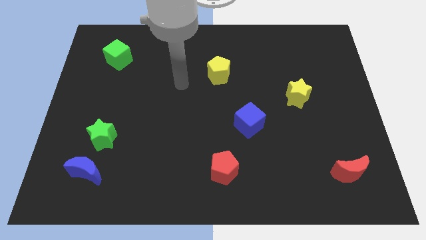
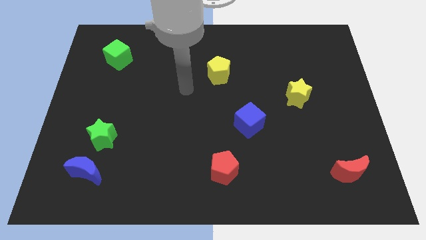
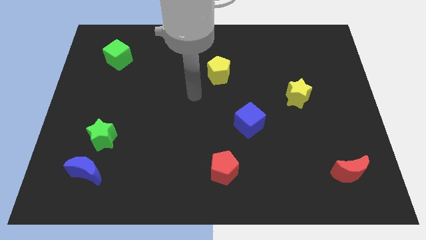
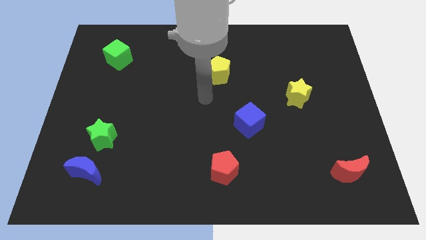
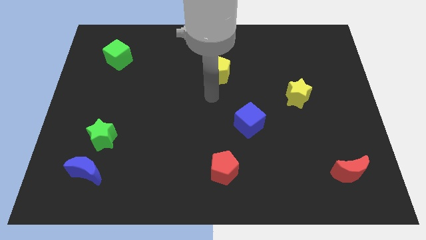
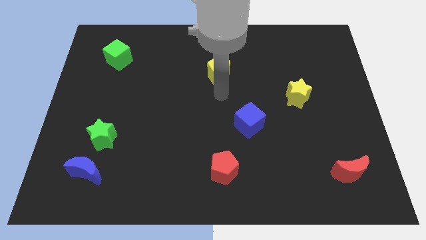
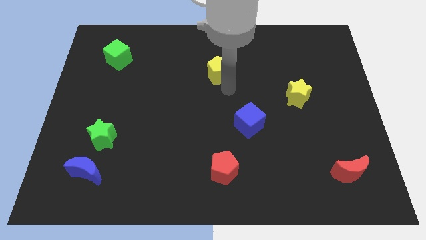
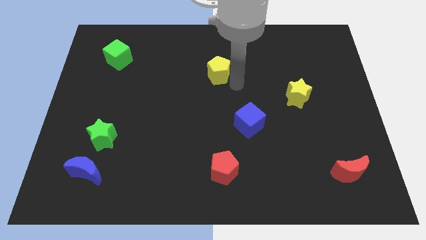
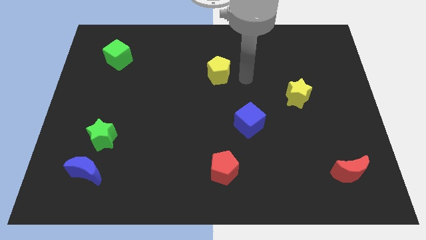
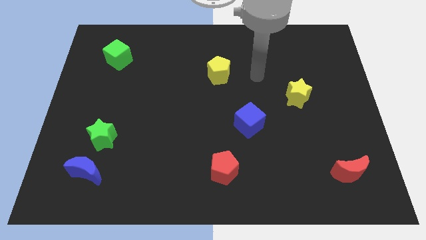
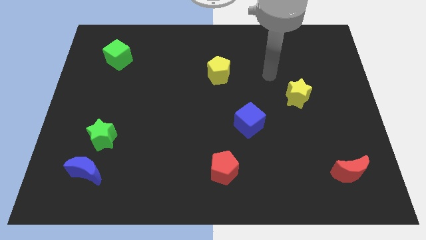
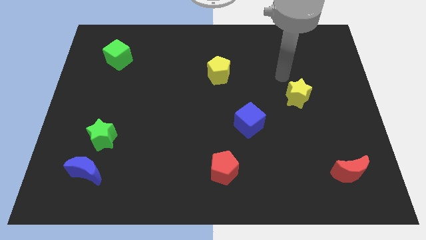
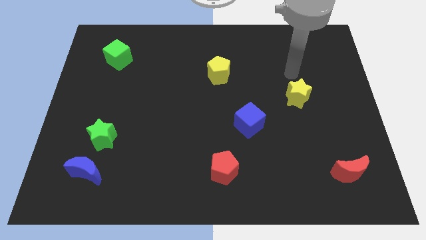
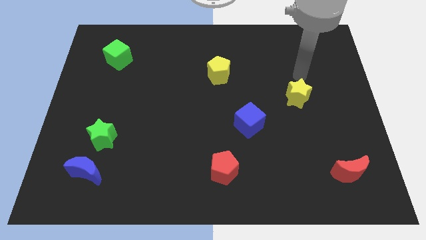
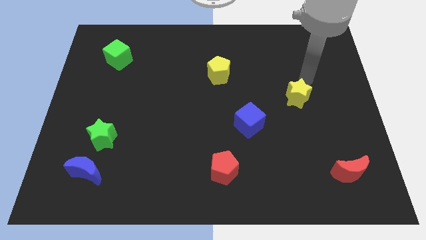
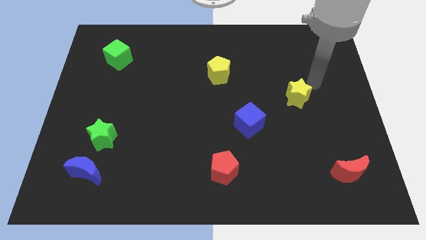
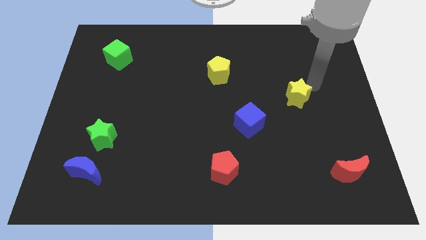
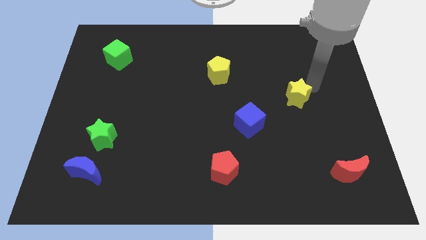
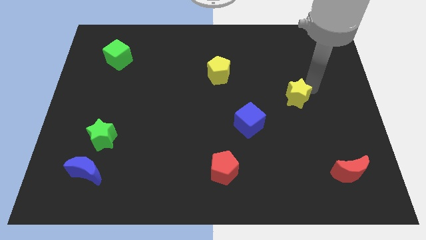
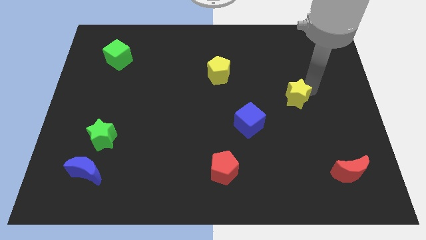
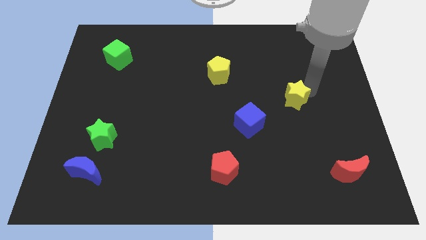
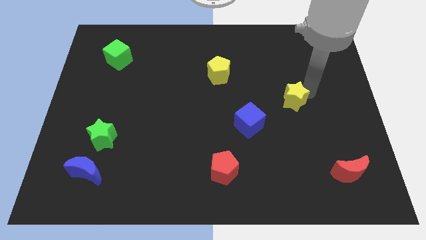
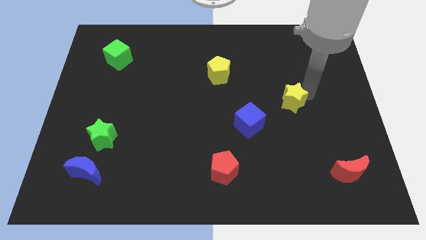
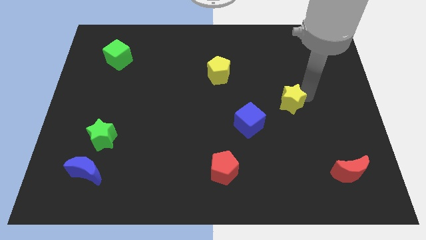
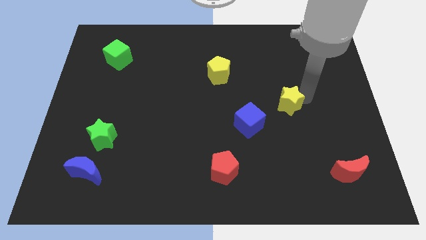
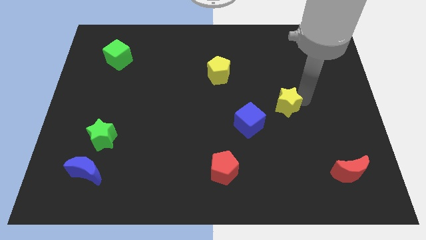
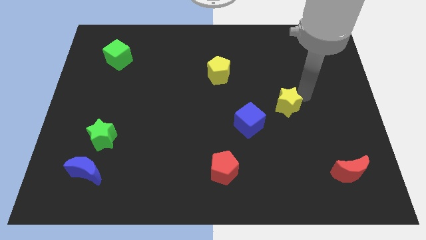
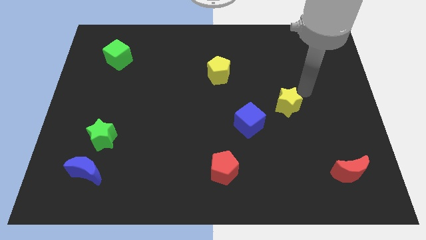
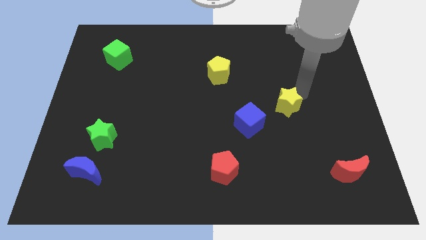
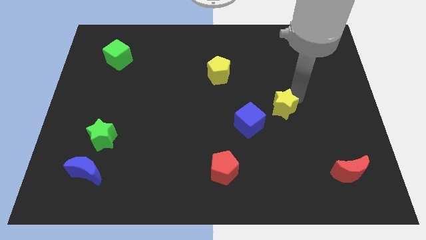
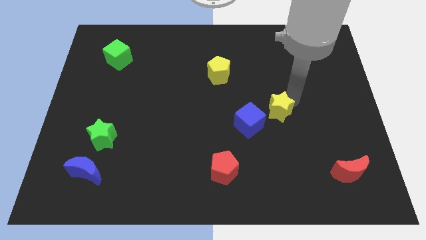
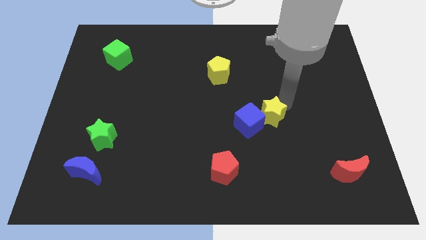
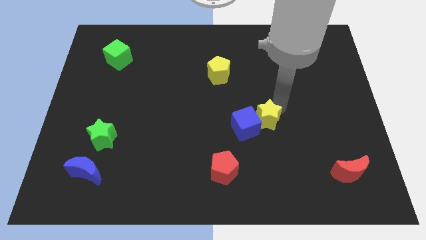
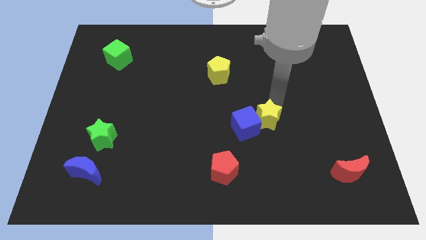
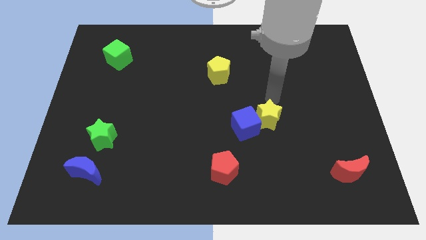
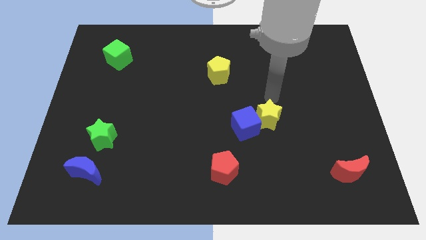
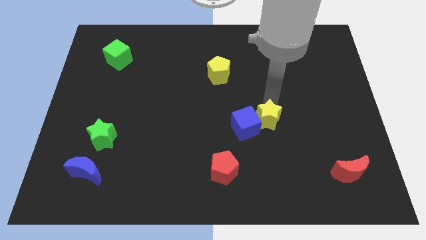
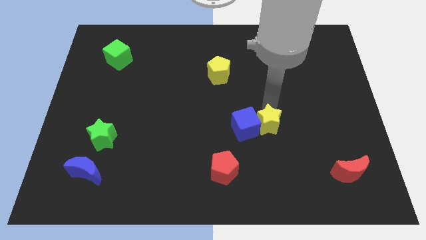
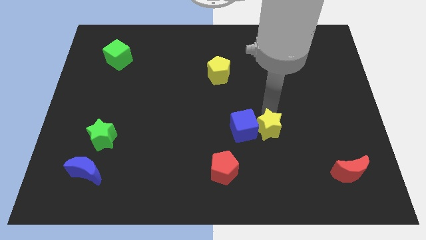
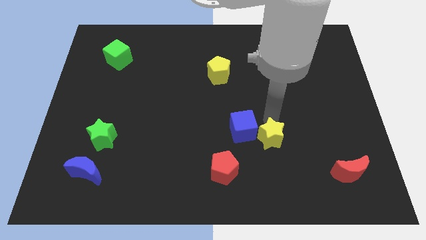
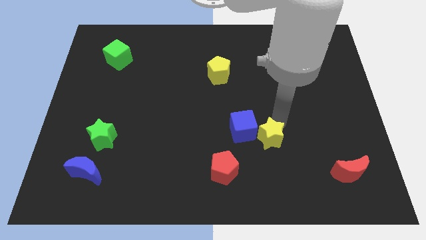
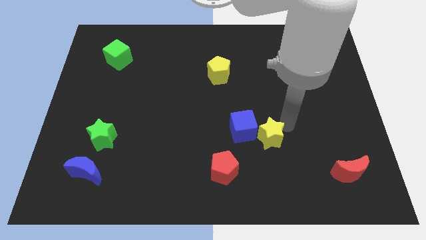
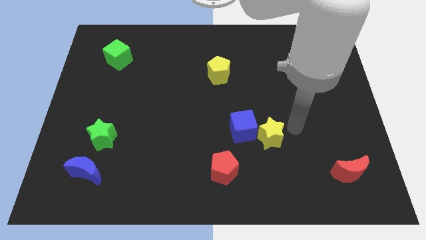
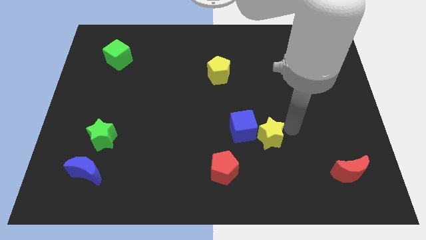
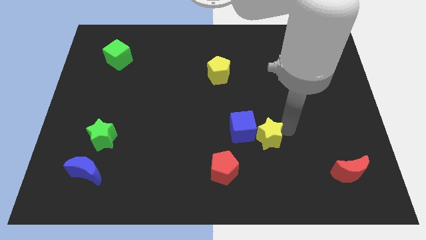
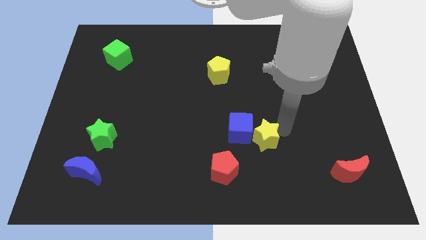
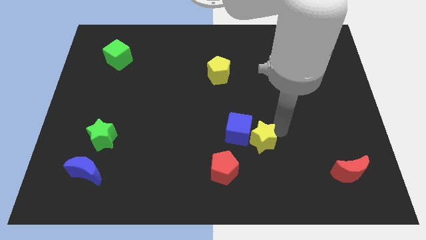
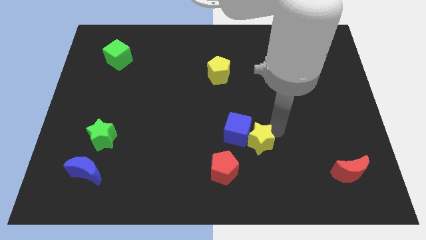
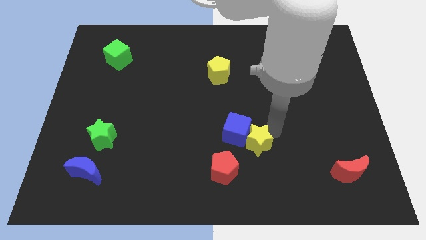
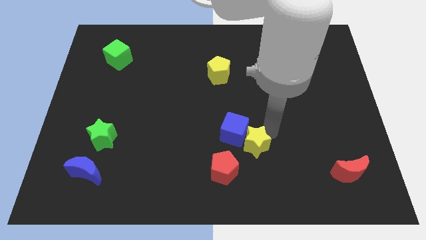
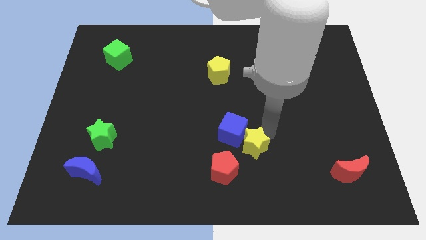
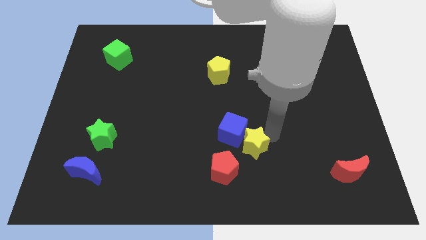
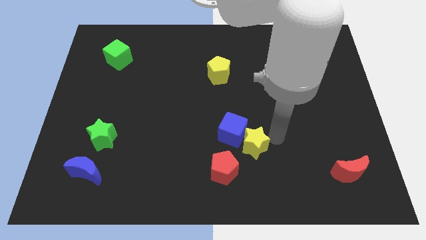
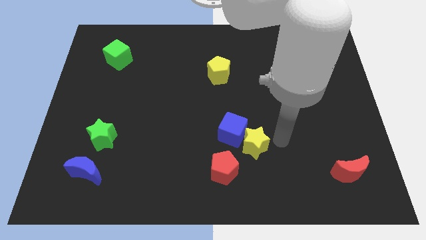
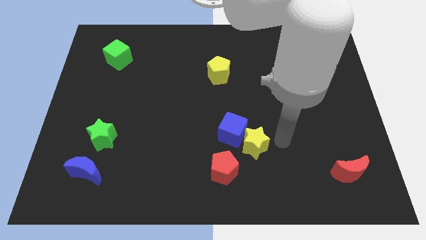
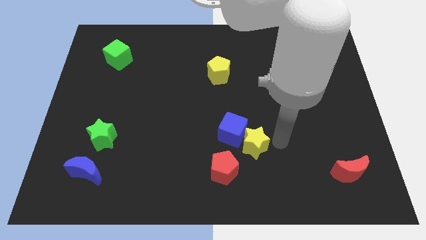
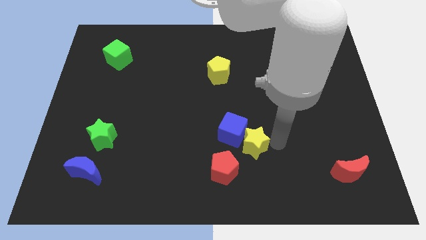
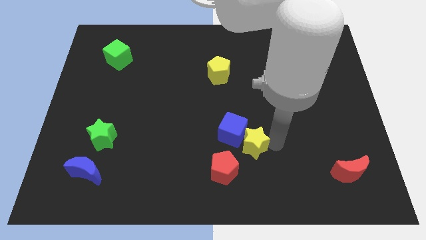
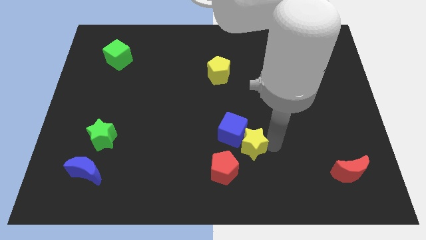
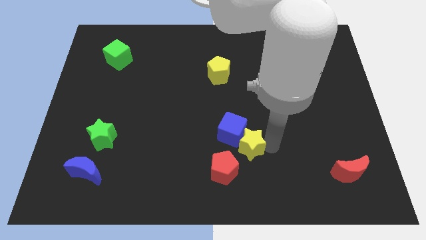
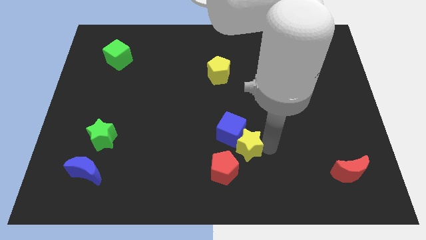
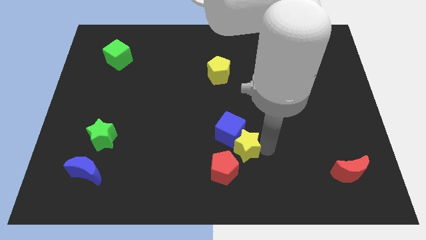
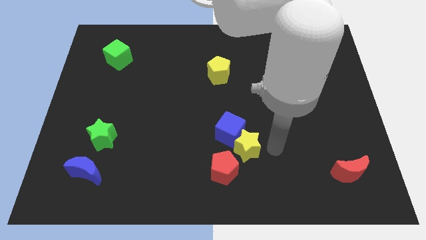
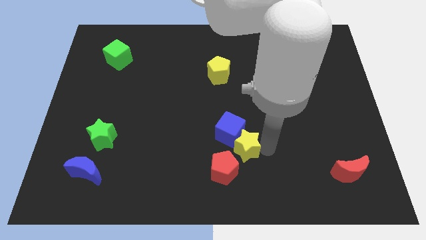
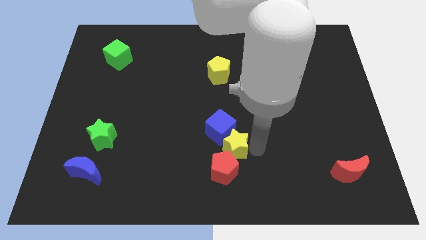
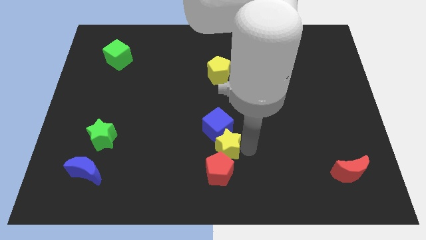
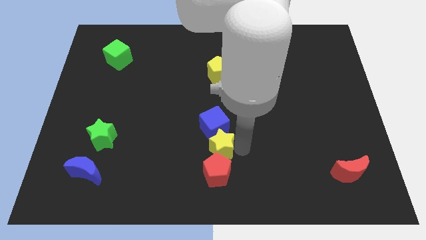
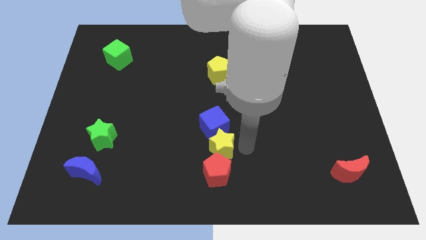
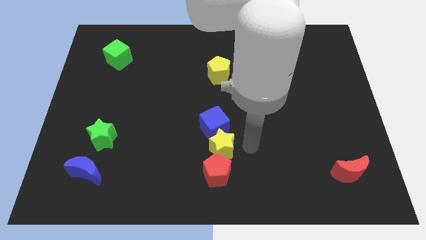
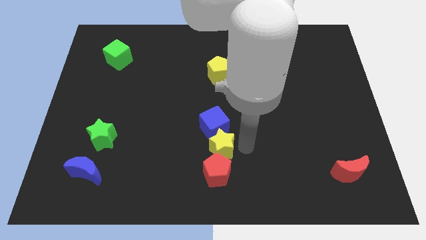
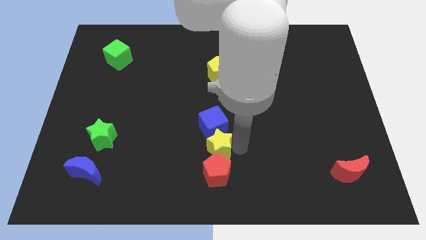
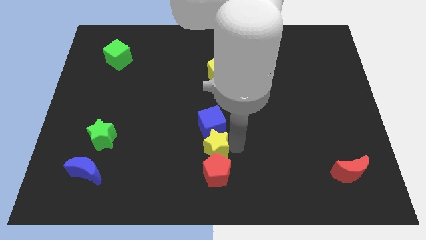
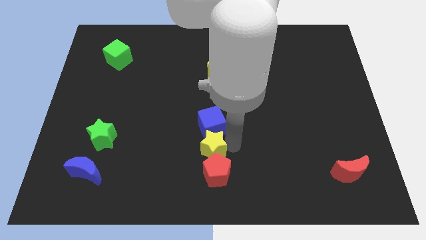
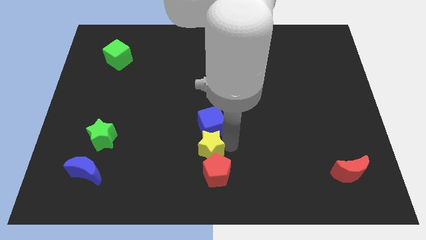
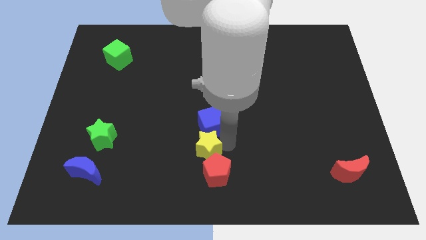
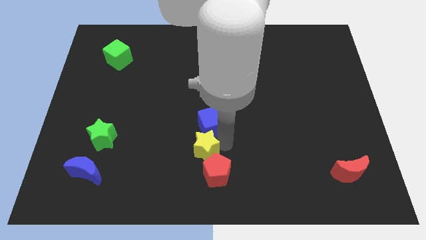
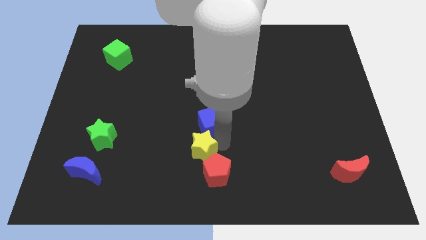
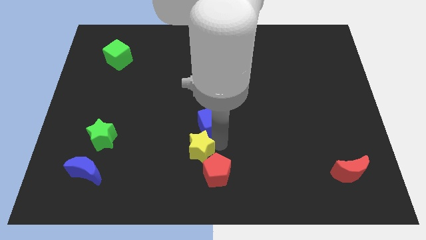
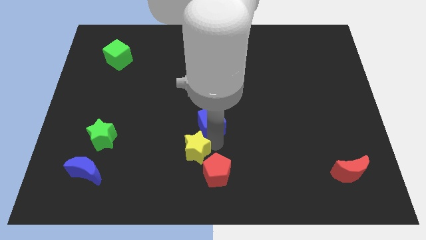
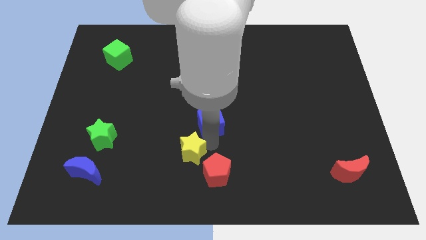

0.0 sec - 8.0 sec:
move the yellow star left of the red pentagon
